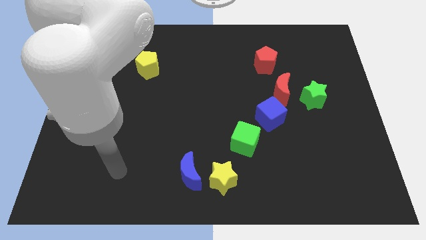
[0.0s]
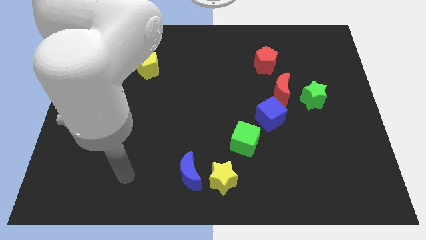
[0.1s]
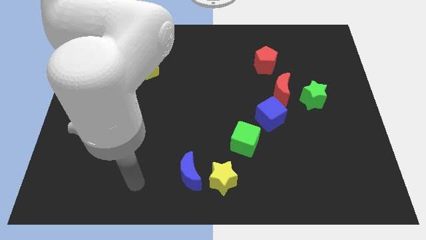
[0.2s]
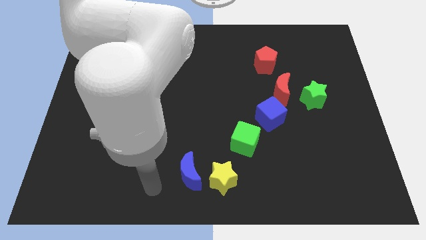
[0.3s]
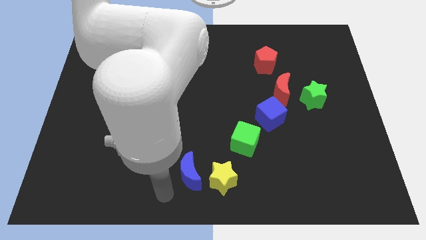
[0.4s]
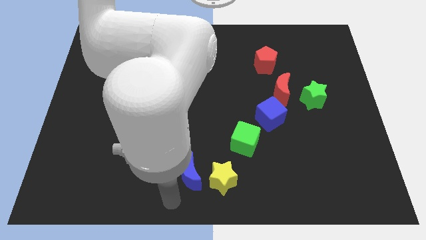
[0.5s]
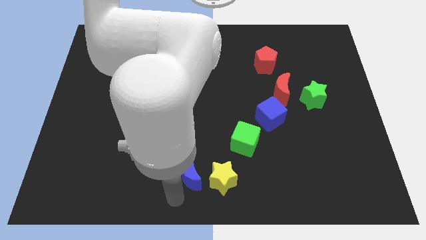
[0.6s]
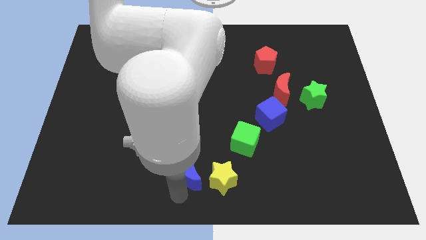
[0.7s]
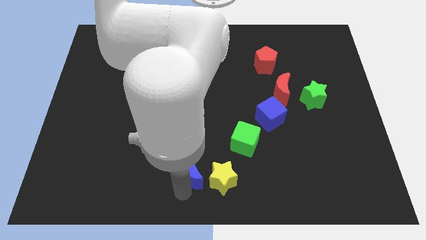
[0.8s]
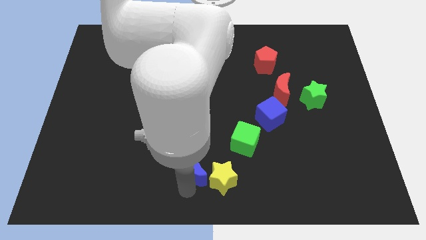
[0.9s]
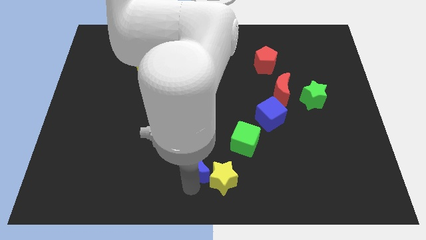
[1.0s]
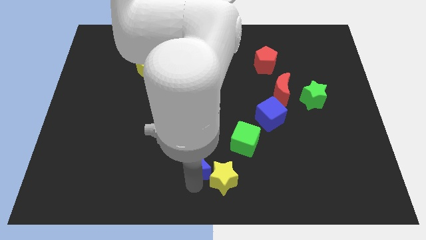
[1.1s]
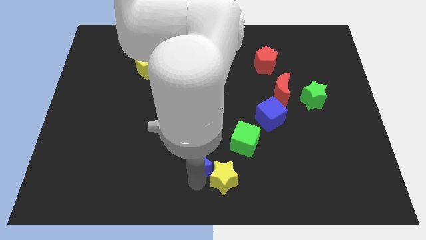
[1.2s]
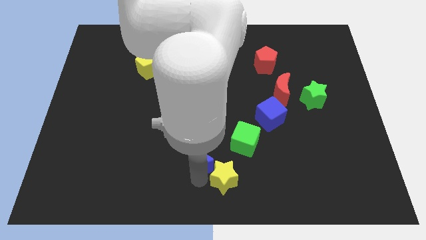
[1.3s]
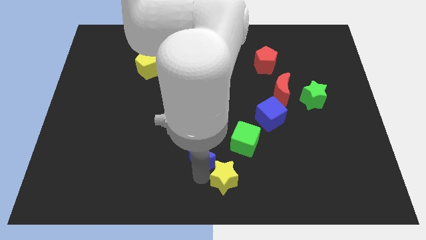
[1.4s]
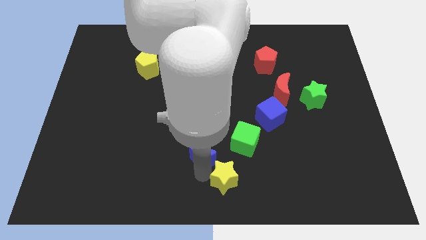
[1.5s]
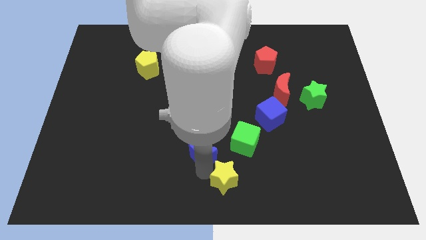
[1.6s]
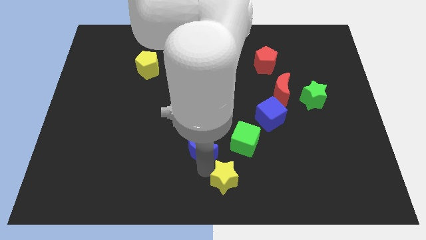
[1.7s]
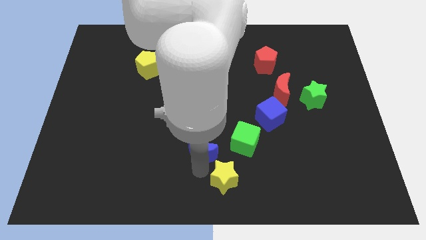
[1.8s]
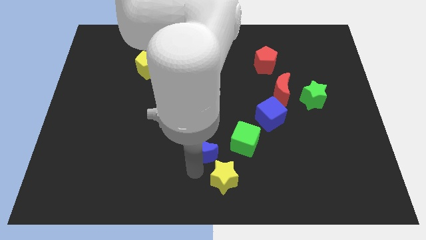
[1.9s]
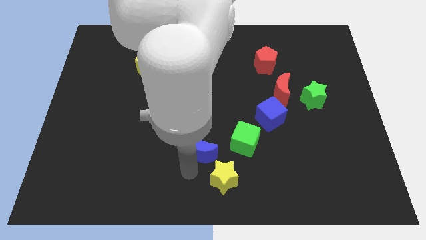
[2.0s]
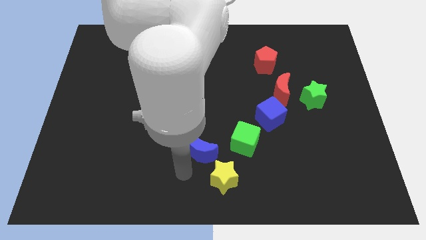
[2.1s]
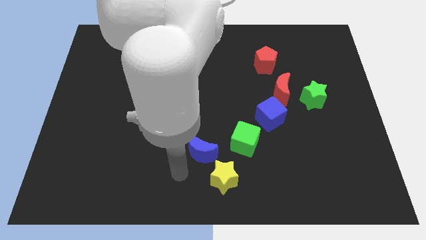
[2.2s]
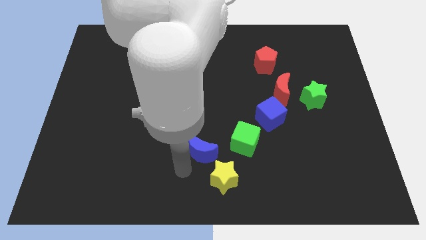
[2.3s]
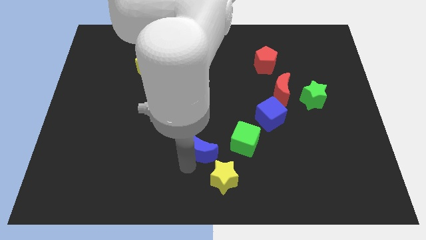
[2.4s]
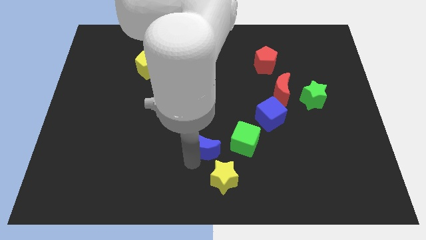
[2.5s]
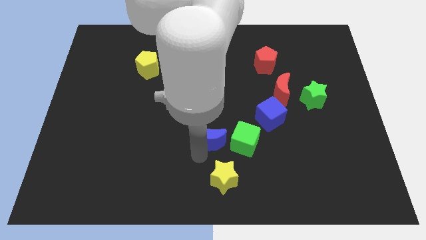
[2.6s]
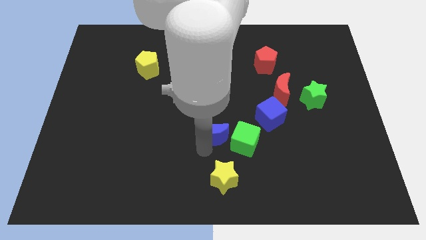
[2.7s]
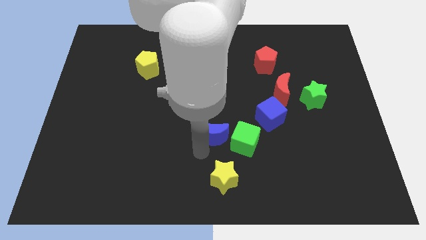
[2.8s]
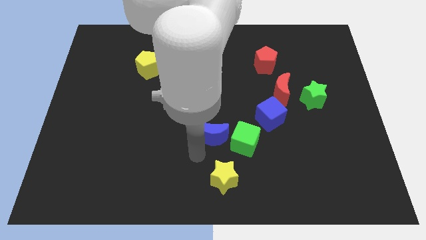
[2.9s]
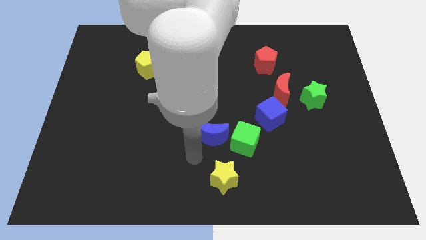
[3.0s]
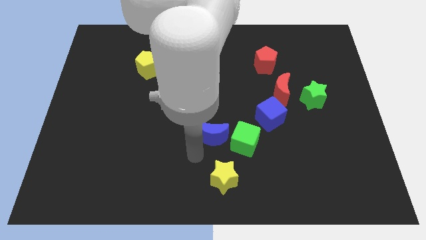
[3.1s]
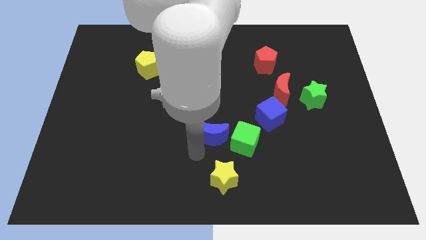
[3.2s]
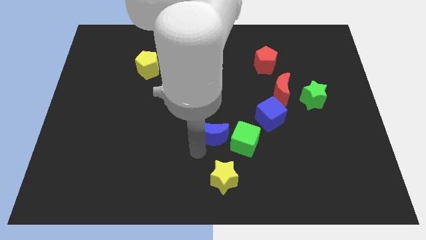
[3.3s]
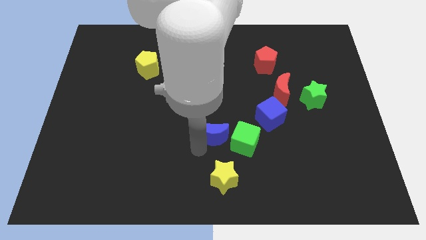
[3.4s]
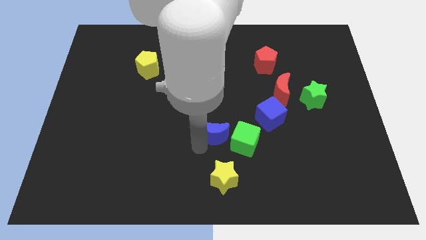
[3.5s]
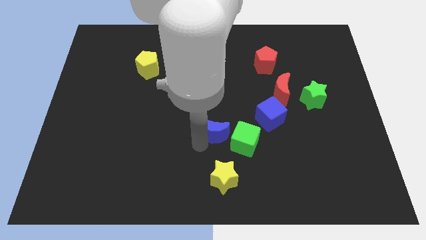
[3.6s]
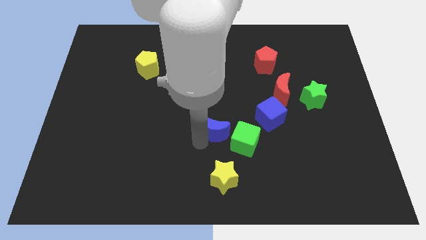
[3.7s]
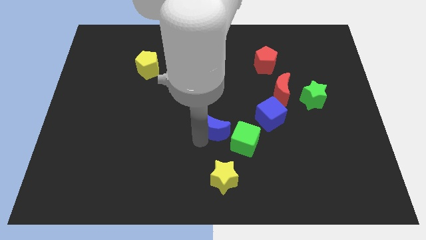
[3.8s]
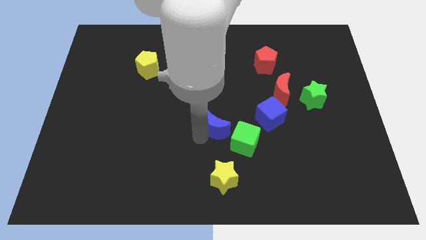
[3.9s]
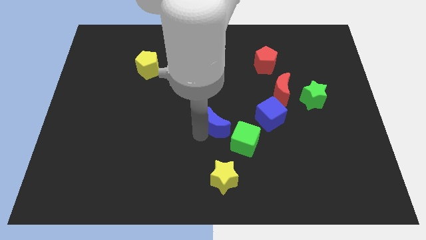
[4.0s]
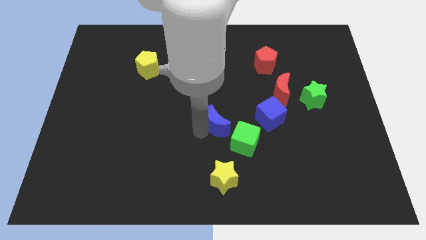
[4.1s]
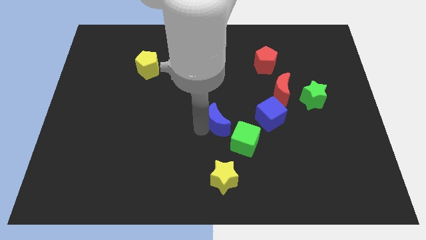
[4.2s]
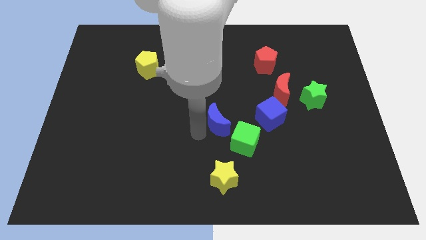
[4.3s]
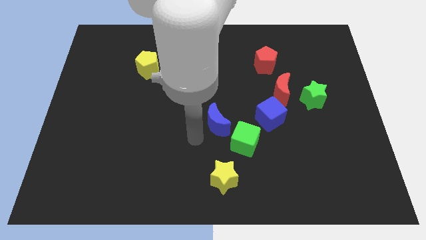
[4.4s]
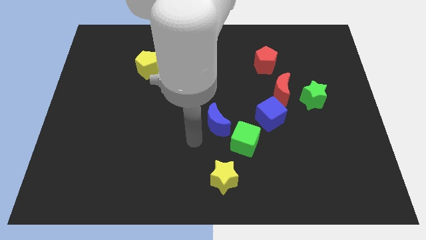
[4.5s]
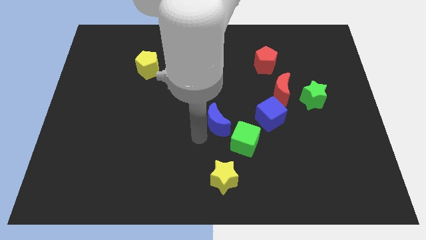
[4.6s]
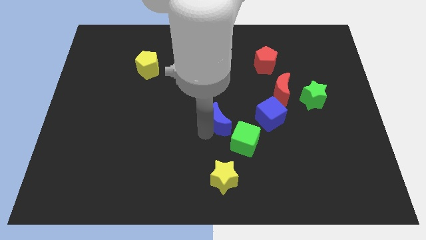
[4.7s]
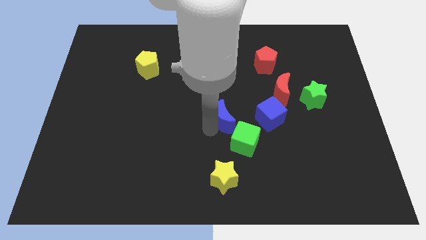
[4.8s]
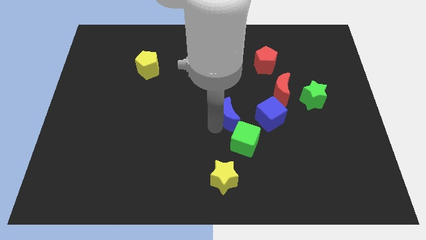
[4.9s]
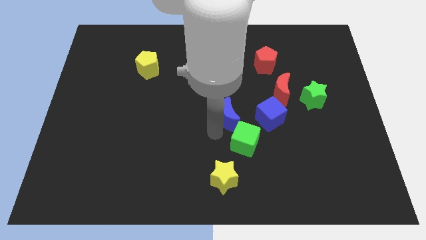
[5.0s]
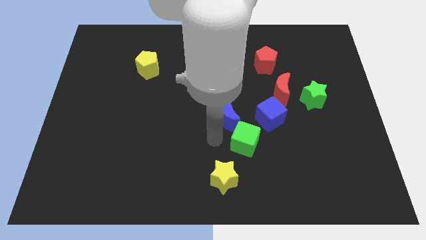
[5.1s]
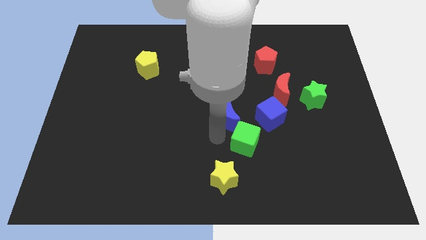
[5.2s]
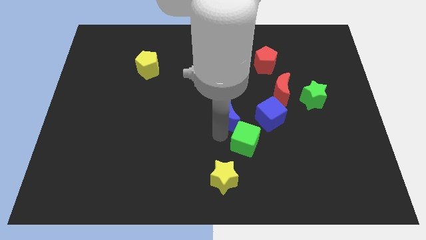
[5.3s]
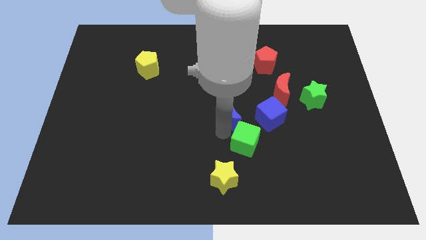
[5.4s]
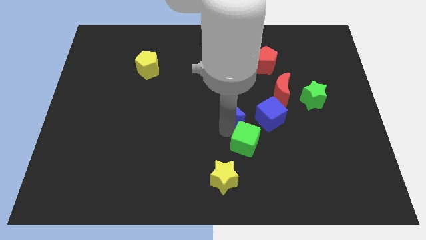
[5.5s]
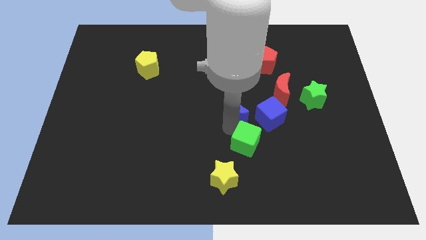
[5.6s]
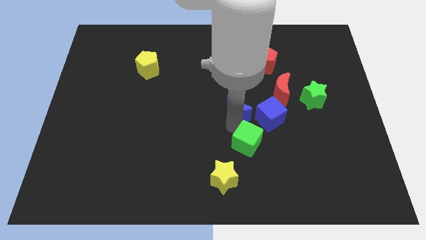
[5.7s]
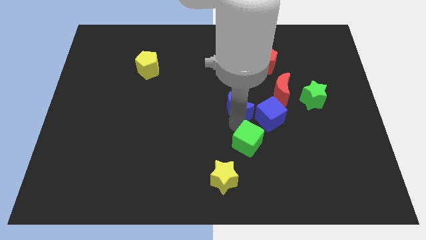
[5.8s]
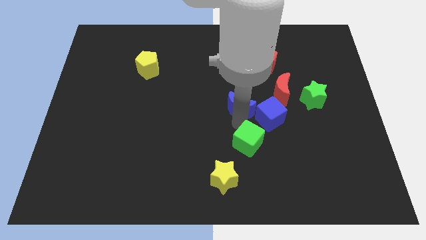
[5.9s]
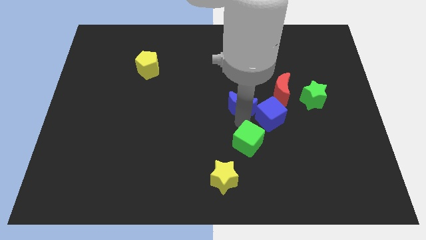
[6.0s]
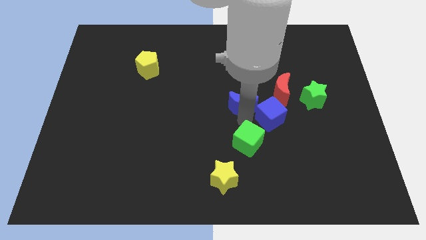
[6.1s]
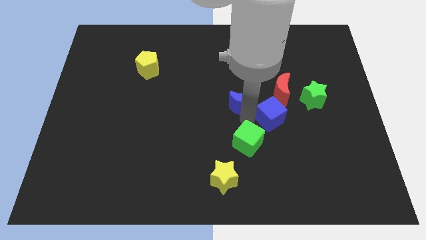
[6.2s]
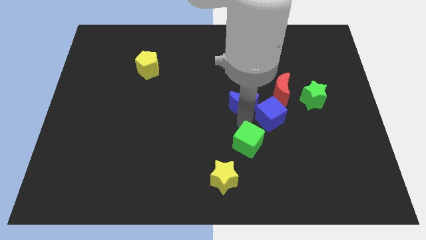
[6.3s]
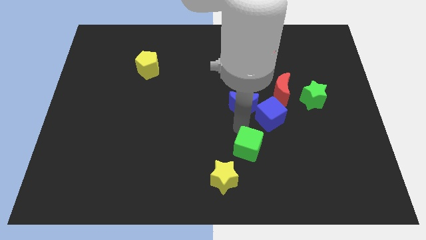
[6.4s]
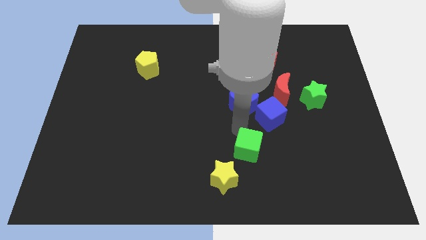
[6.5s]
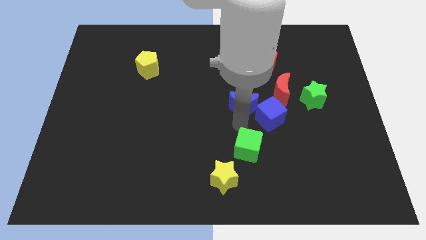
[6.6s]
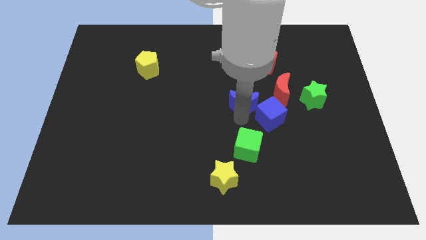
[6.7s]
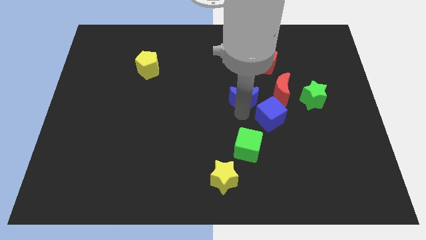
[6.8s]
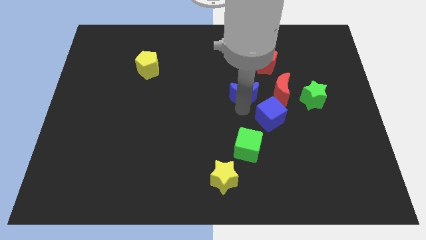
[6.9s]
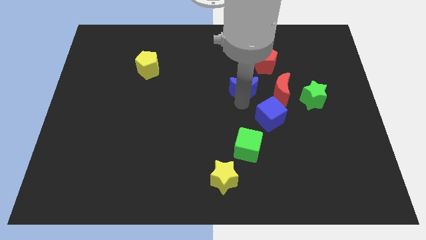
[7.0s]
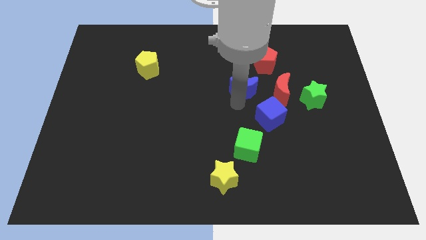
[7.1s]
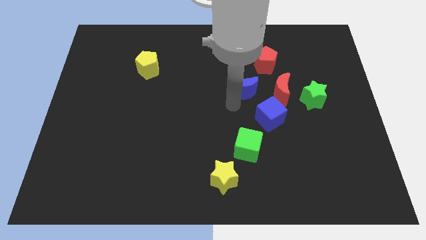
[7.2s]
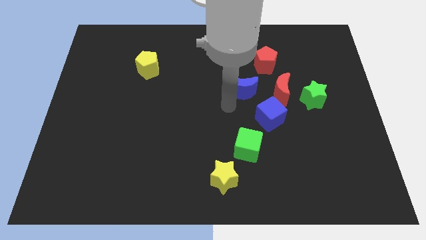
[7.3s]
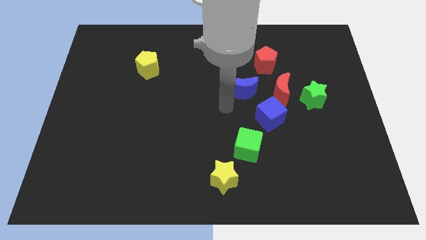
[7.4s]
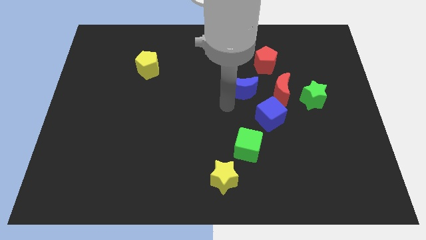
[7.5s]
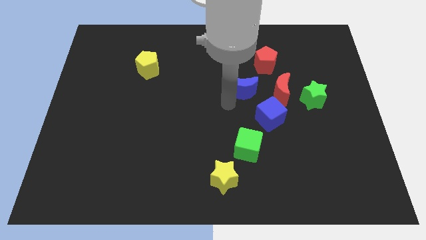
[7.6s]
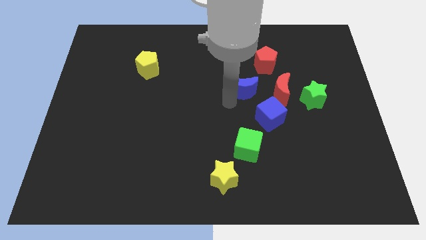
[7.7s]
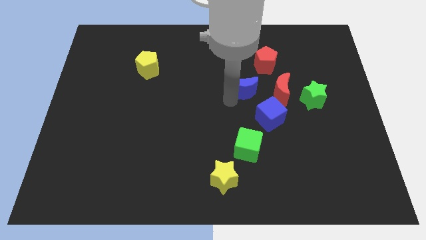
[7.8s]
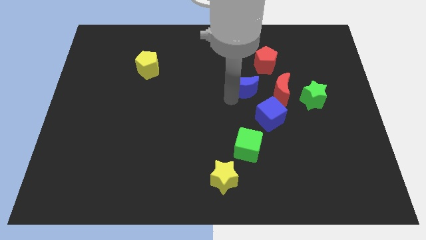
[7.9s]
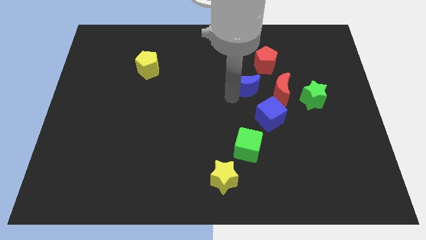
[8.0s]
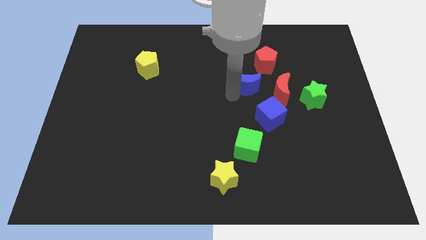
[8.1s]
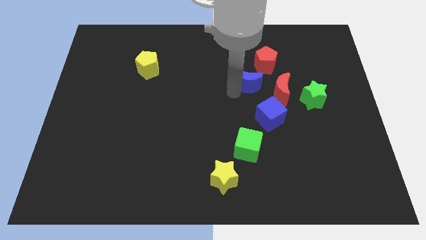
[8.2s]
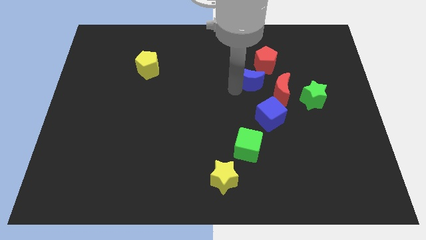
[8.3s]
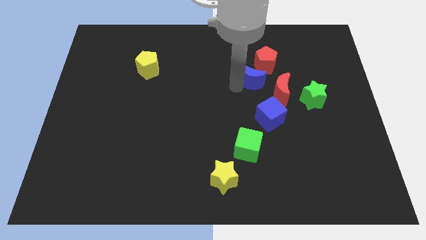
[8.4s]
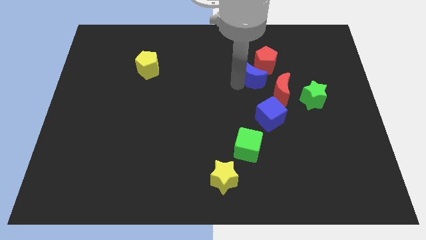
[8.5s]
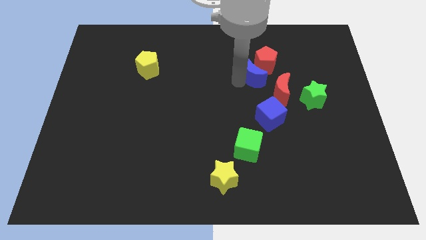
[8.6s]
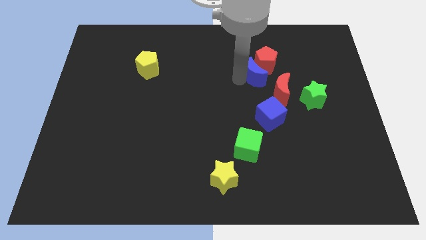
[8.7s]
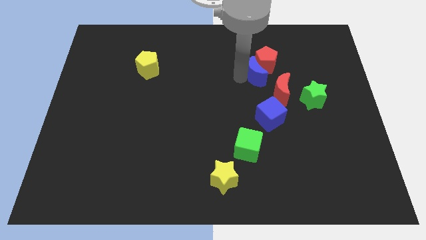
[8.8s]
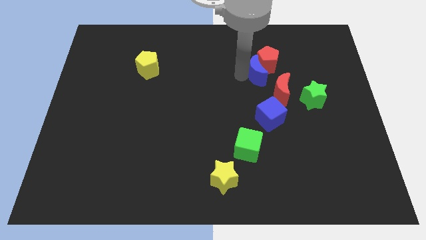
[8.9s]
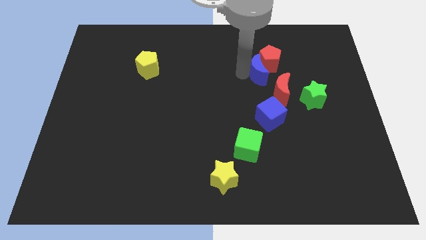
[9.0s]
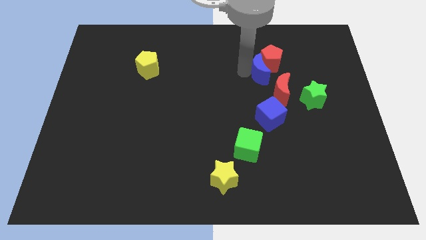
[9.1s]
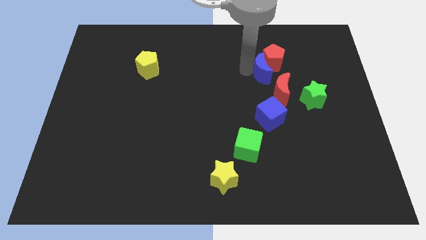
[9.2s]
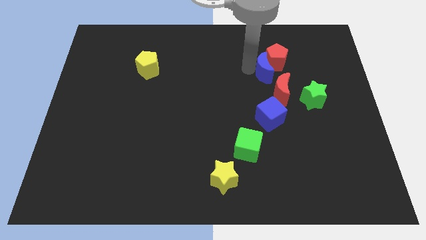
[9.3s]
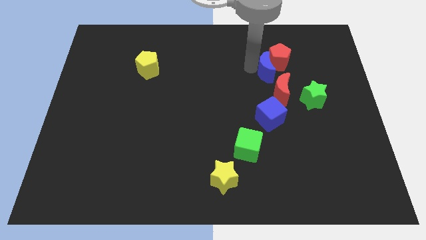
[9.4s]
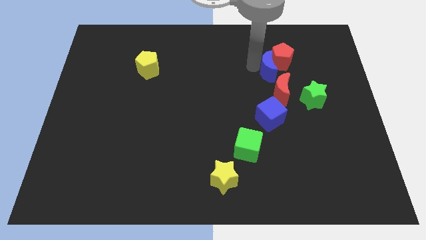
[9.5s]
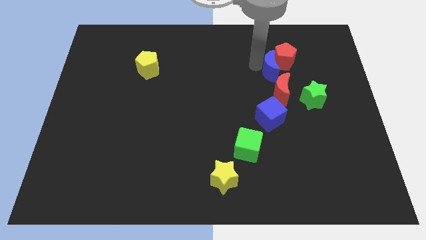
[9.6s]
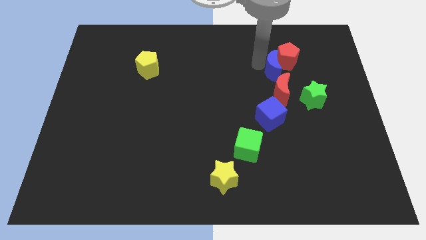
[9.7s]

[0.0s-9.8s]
push the blue moon to the top left of the green star
